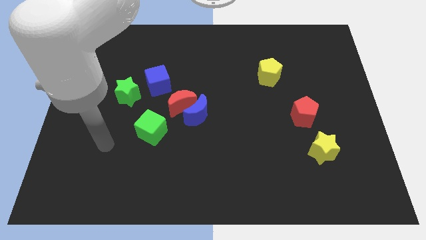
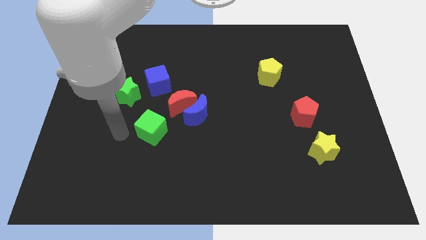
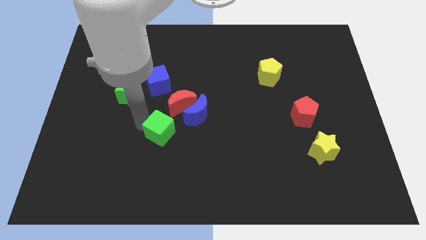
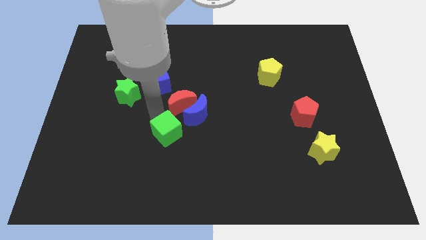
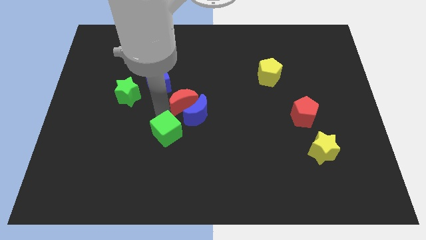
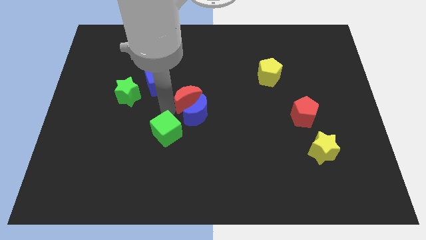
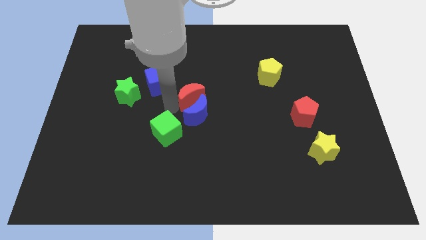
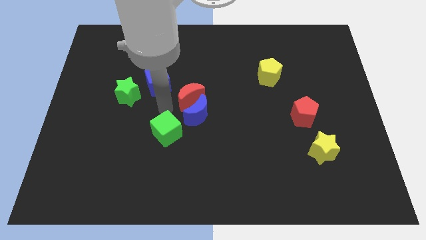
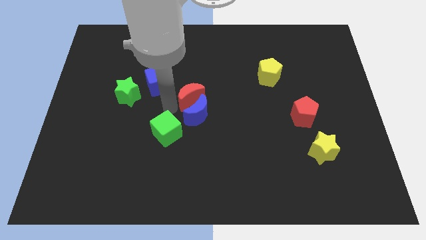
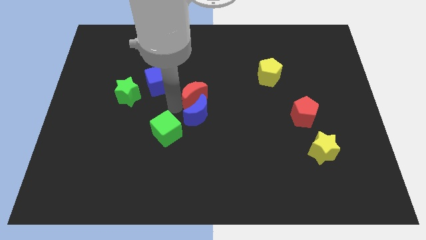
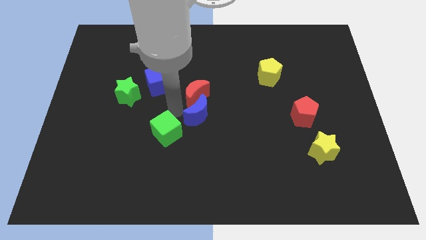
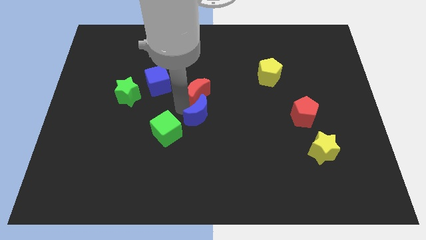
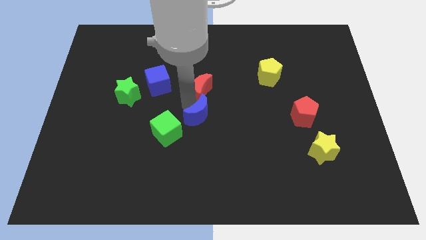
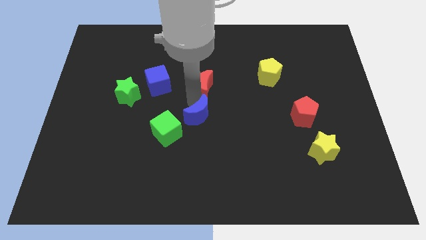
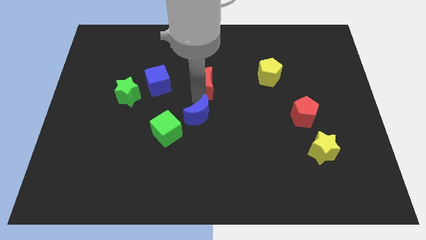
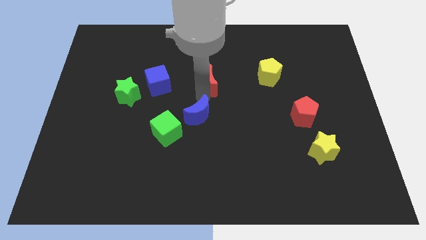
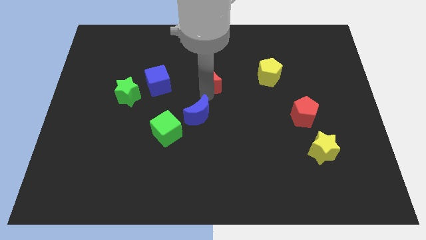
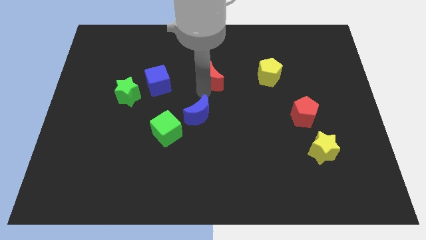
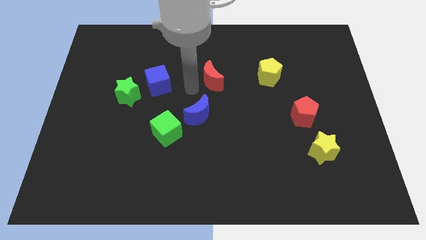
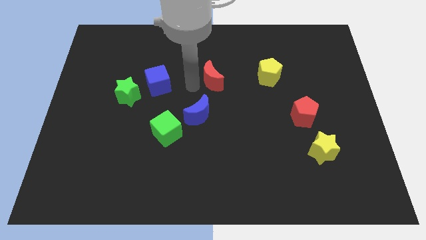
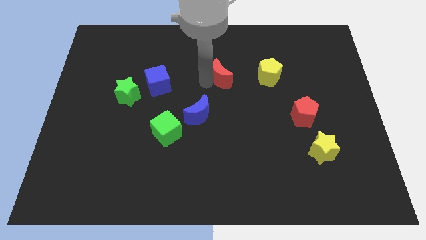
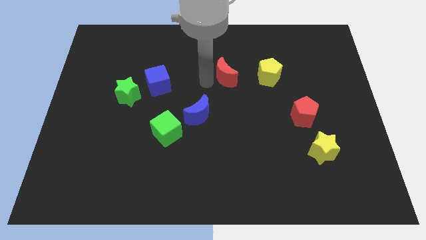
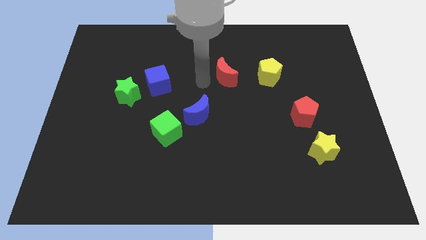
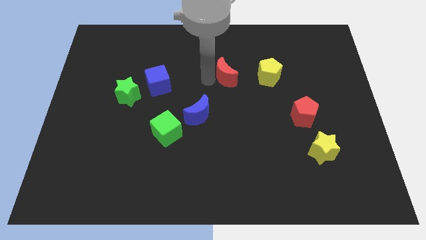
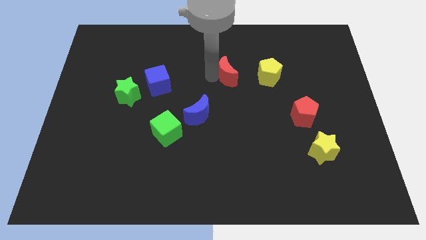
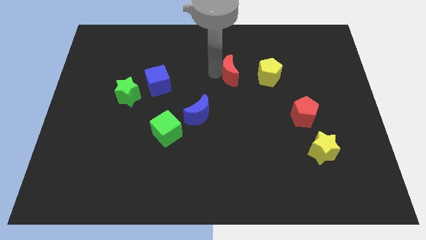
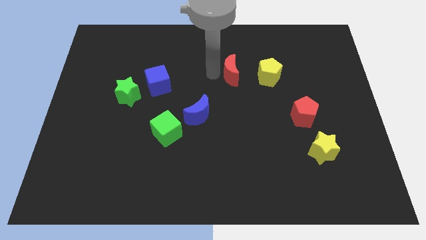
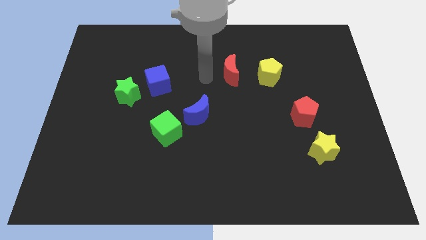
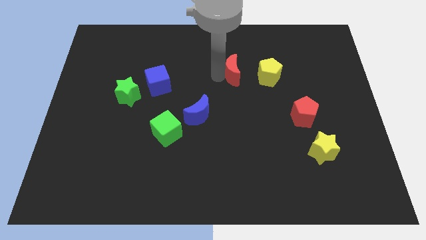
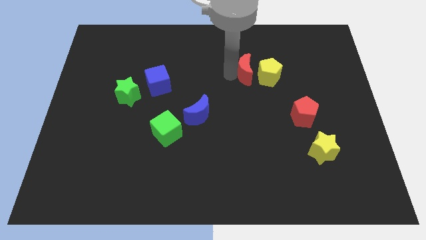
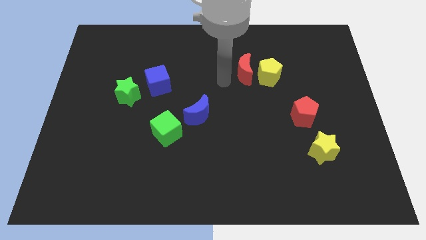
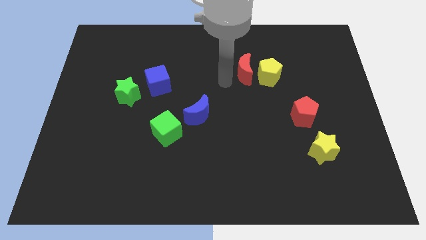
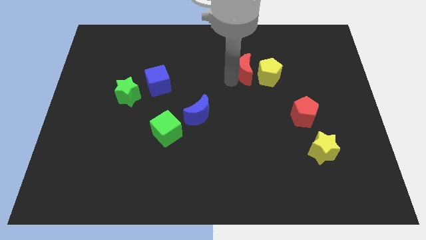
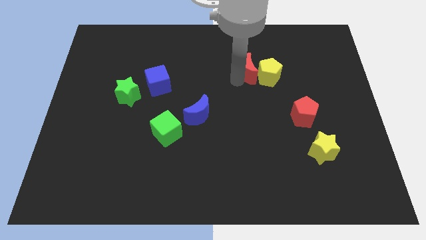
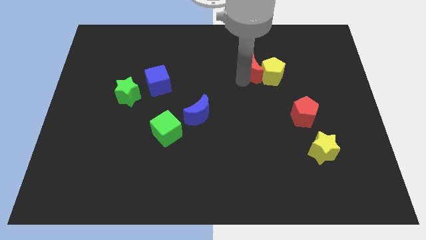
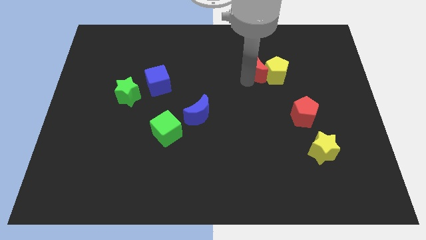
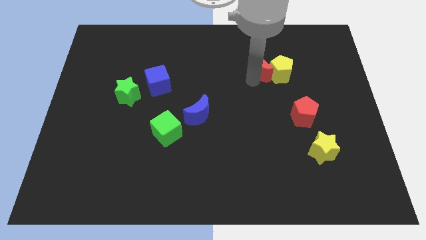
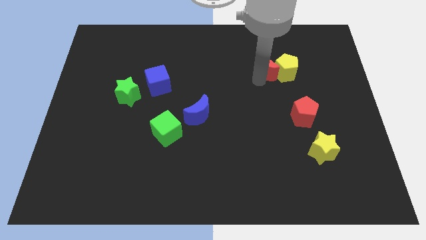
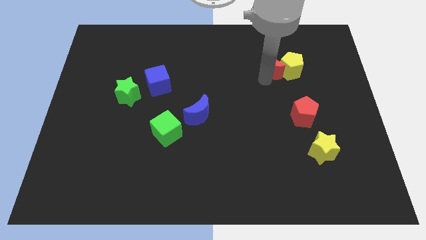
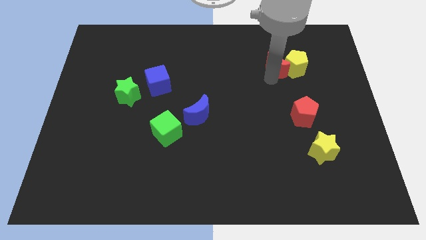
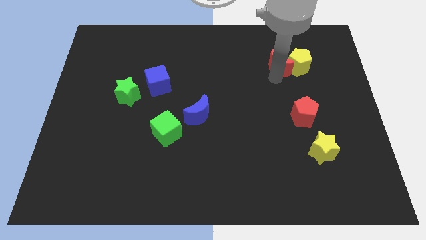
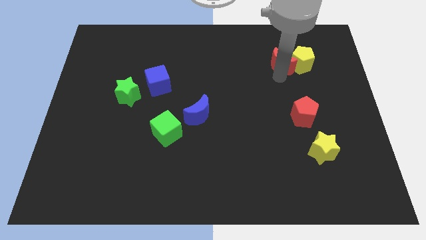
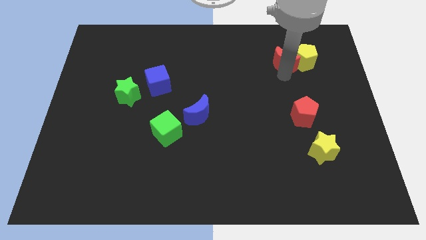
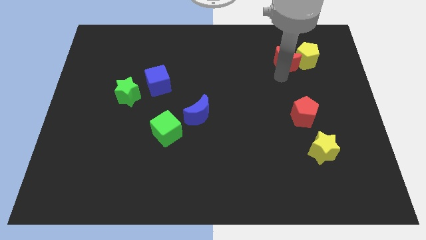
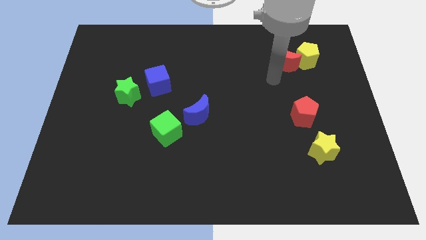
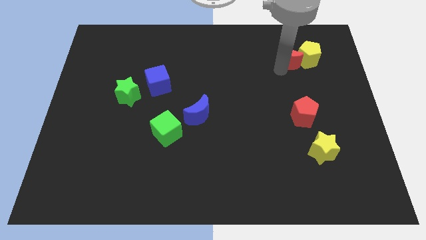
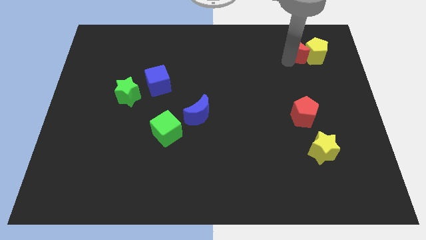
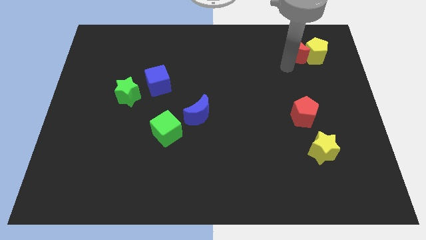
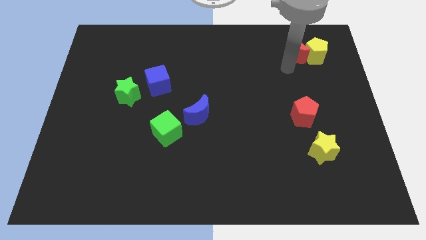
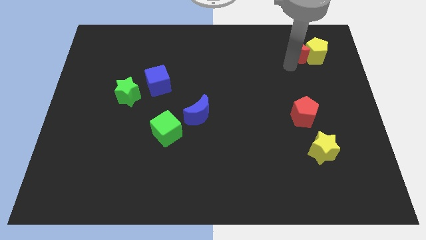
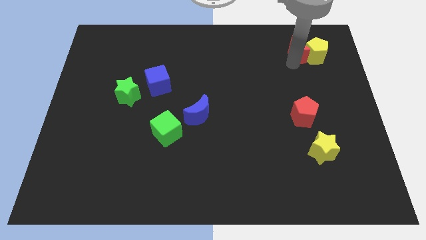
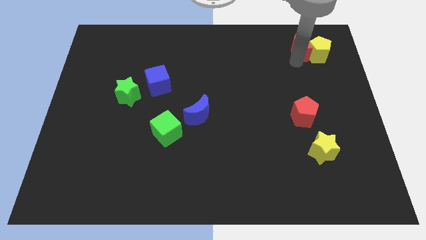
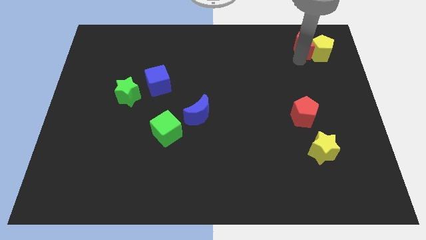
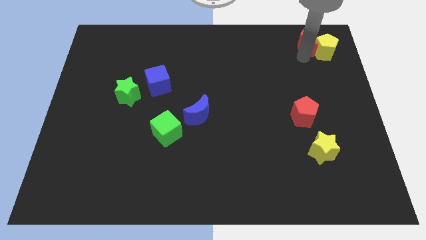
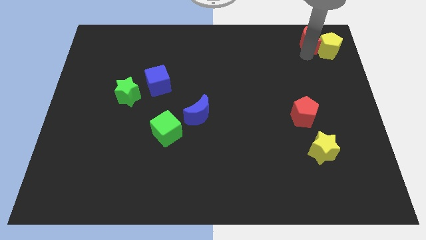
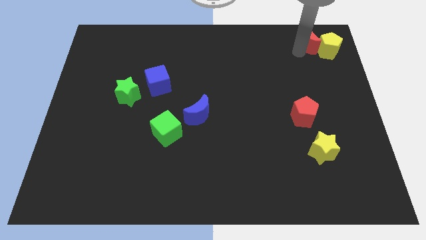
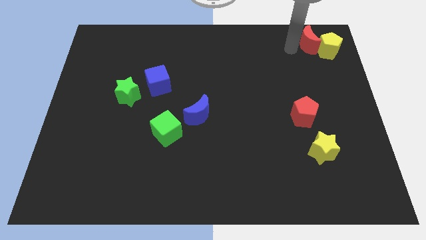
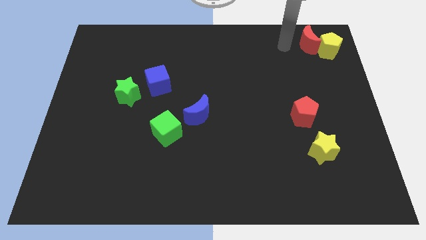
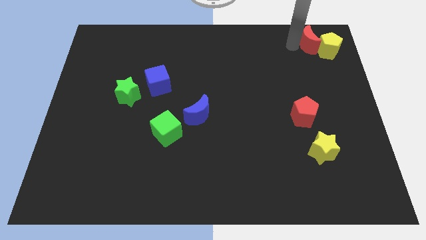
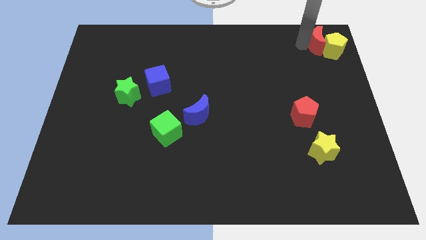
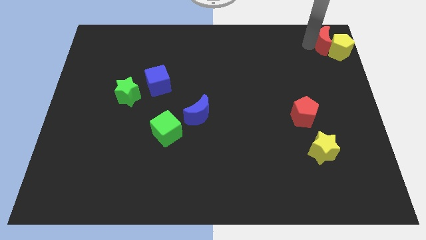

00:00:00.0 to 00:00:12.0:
push the red moon to the top right corner
